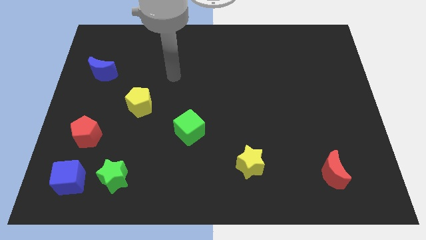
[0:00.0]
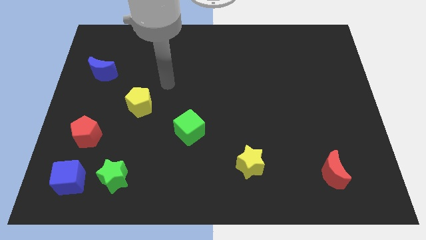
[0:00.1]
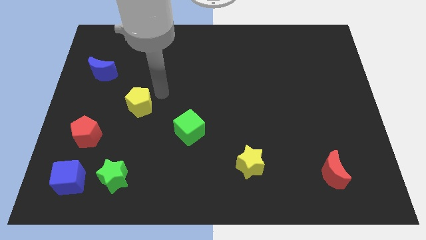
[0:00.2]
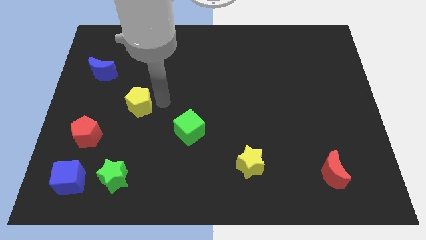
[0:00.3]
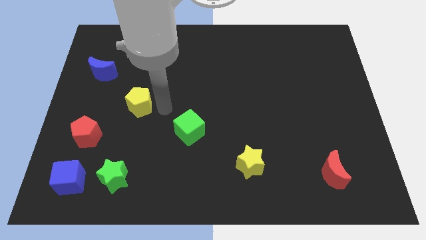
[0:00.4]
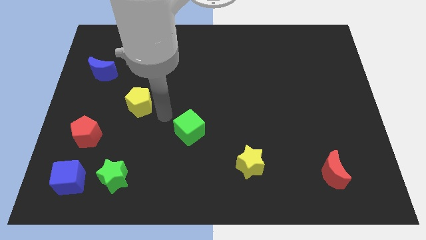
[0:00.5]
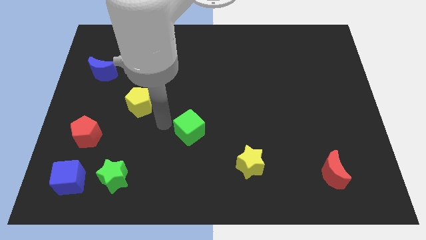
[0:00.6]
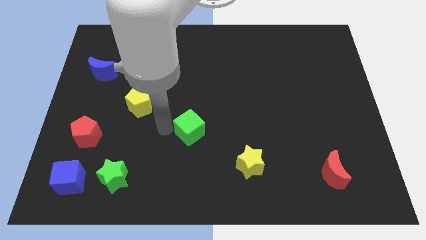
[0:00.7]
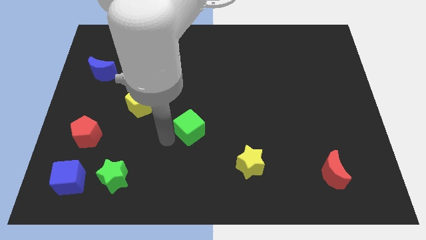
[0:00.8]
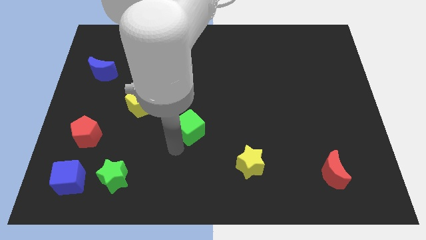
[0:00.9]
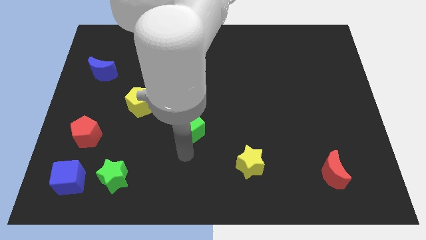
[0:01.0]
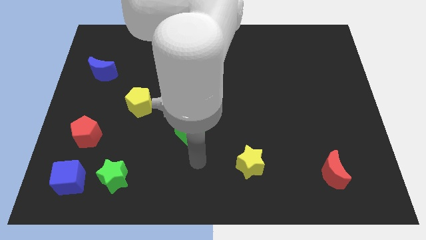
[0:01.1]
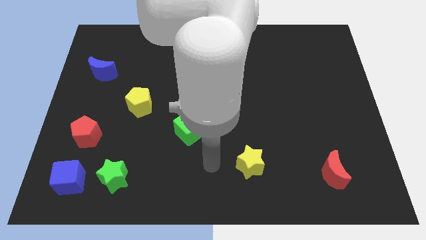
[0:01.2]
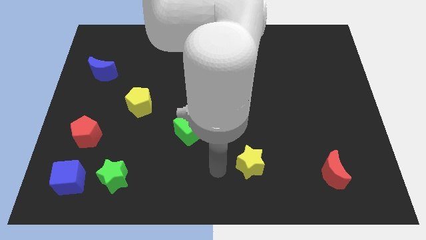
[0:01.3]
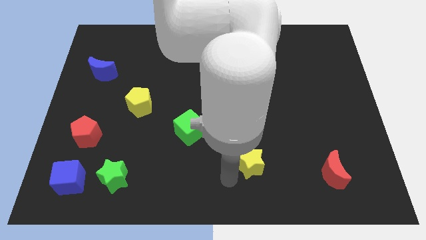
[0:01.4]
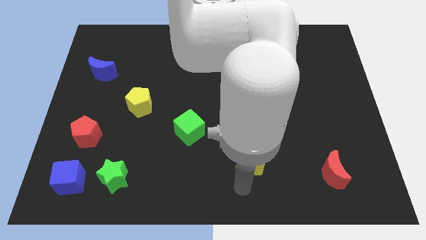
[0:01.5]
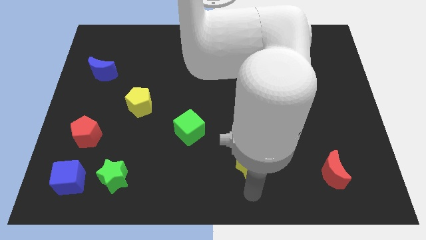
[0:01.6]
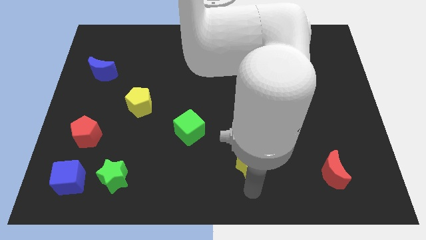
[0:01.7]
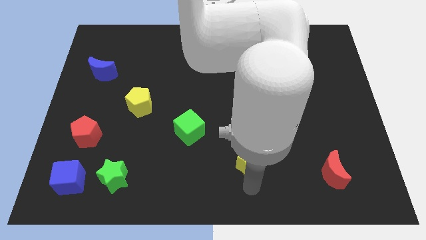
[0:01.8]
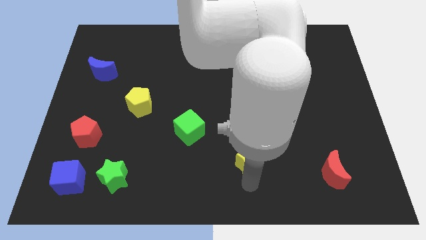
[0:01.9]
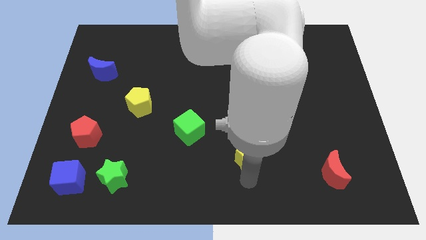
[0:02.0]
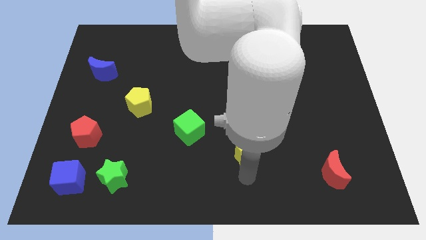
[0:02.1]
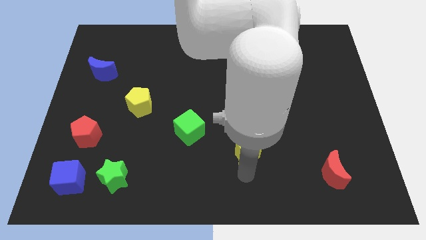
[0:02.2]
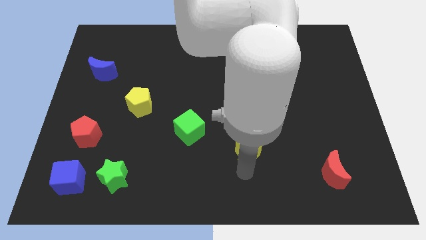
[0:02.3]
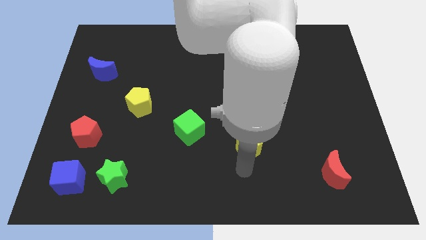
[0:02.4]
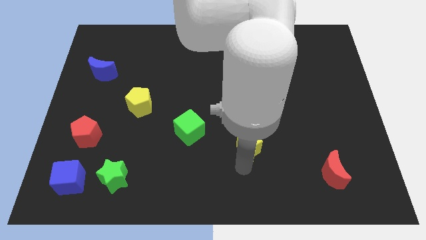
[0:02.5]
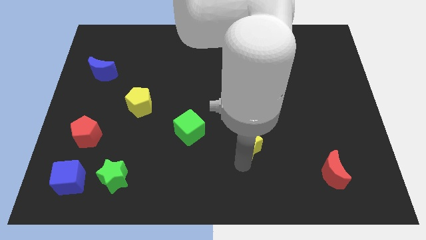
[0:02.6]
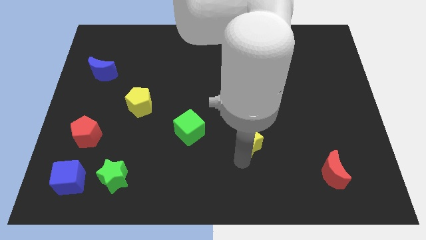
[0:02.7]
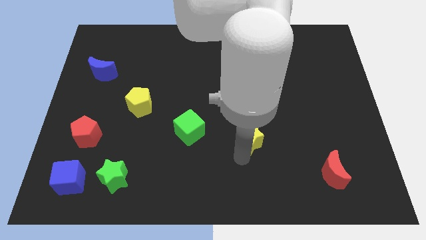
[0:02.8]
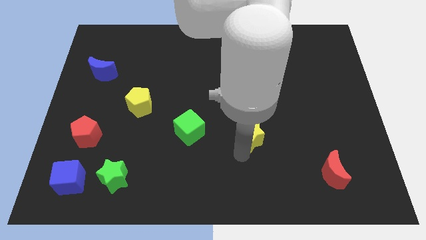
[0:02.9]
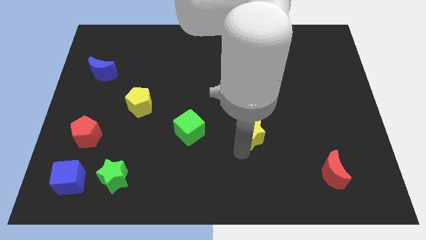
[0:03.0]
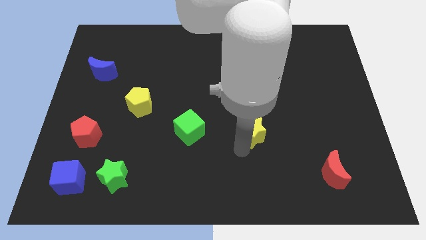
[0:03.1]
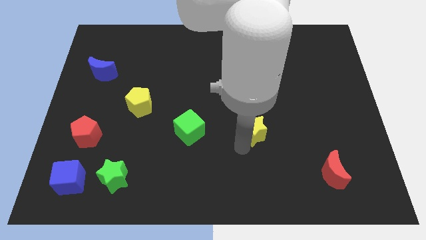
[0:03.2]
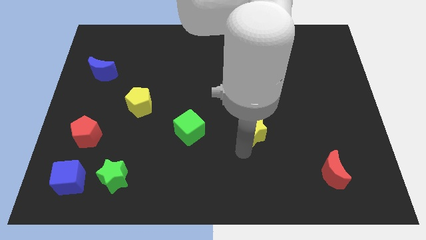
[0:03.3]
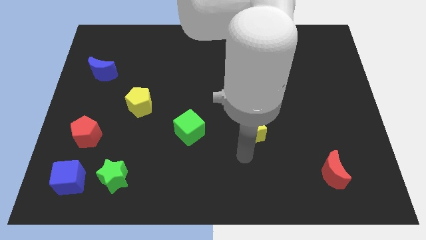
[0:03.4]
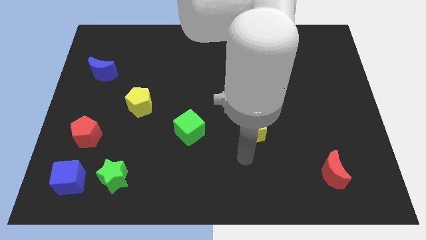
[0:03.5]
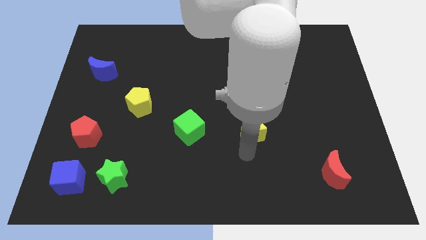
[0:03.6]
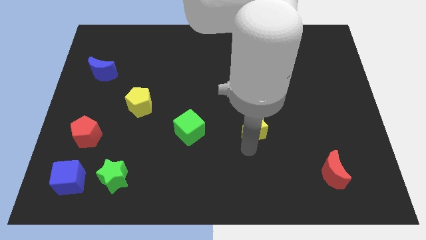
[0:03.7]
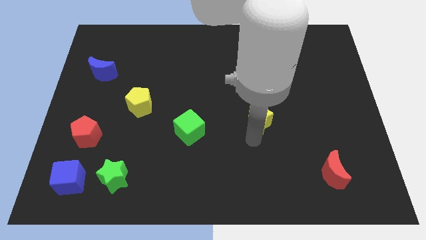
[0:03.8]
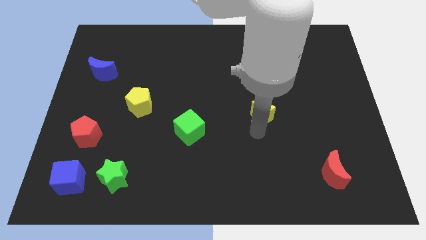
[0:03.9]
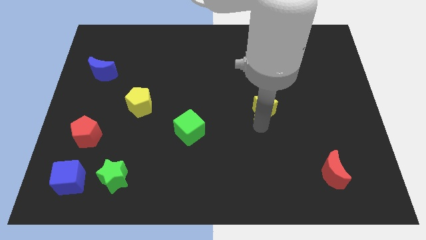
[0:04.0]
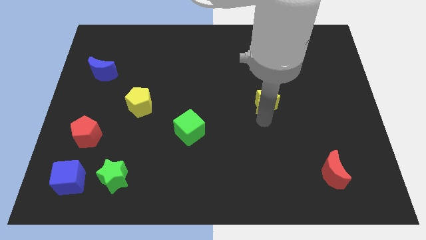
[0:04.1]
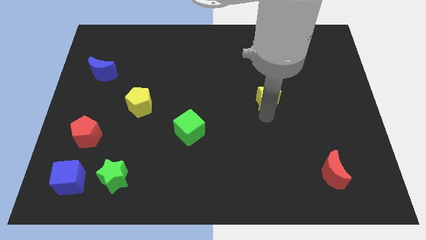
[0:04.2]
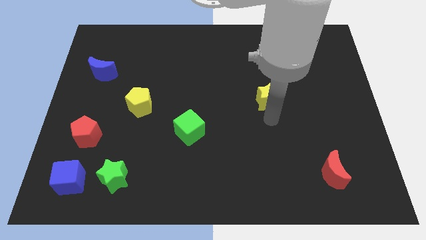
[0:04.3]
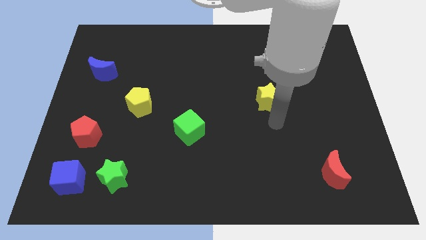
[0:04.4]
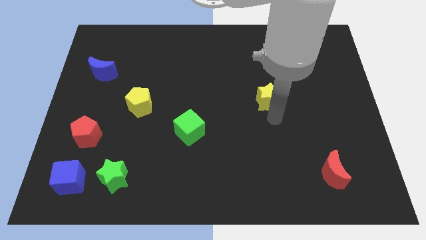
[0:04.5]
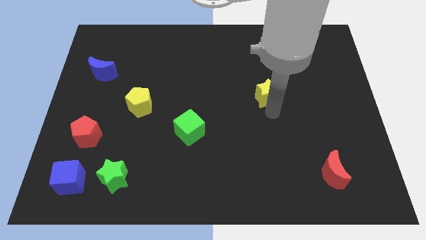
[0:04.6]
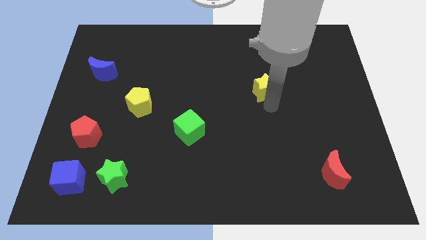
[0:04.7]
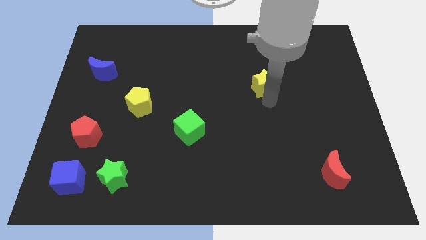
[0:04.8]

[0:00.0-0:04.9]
push the yellow star up

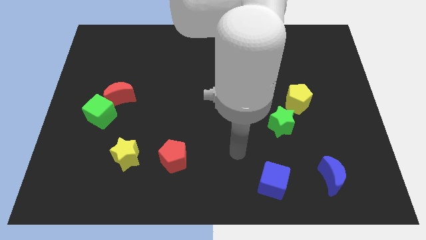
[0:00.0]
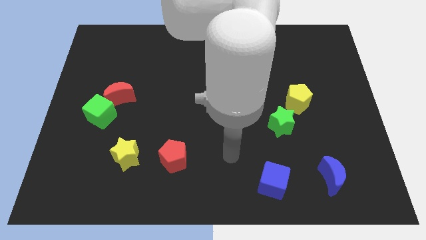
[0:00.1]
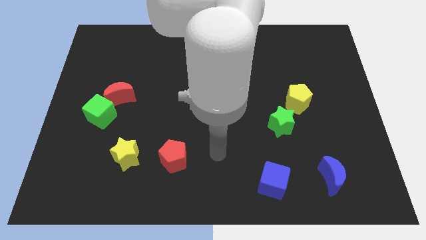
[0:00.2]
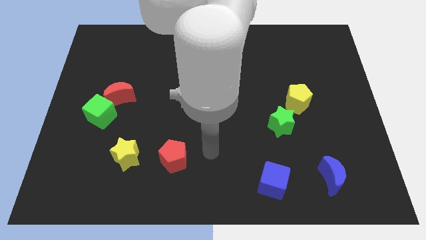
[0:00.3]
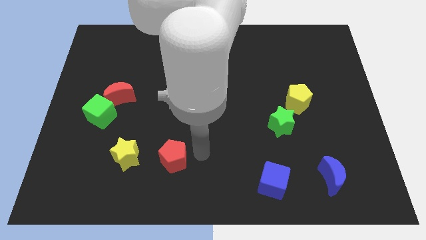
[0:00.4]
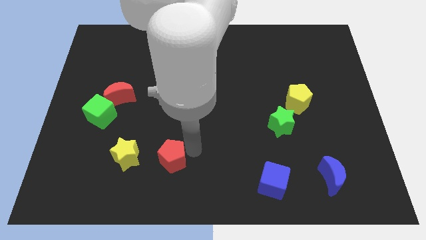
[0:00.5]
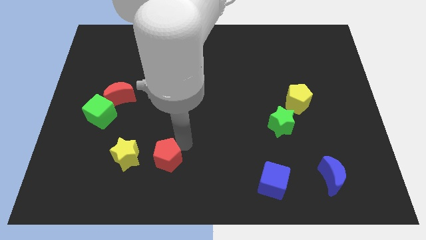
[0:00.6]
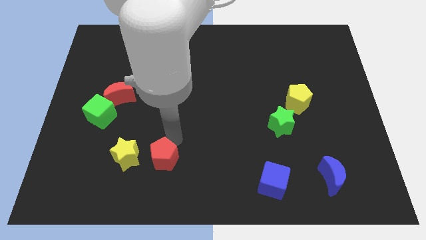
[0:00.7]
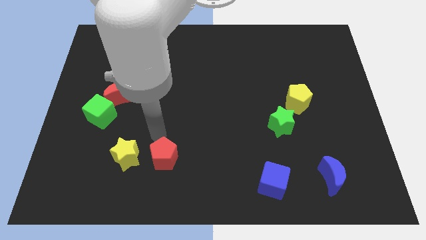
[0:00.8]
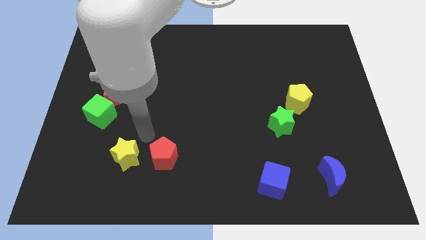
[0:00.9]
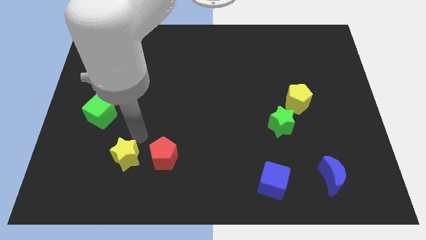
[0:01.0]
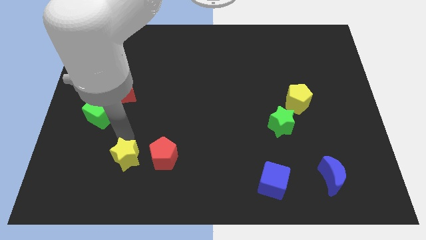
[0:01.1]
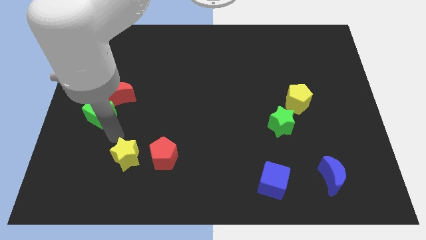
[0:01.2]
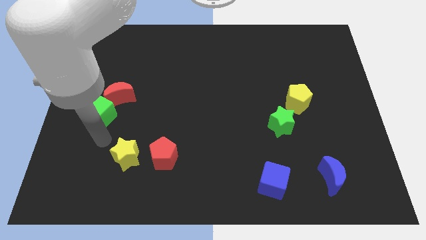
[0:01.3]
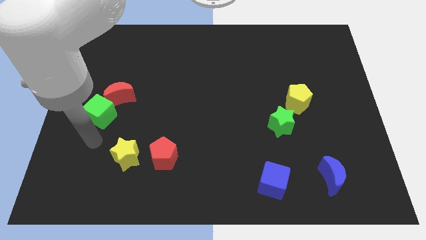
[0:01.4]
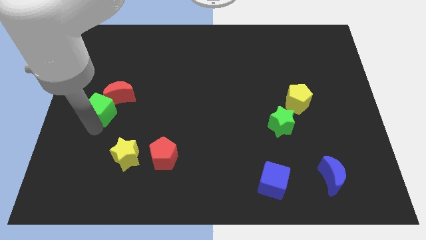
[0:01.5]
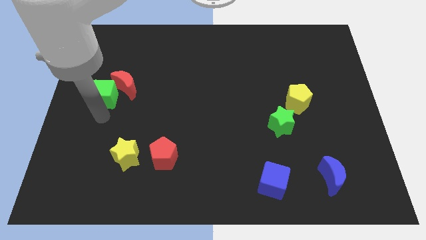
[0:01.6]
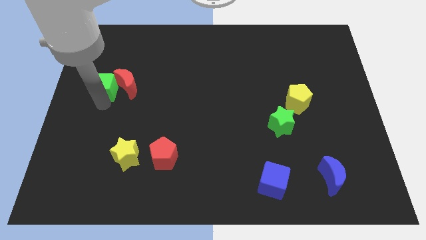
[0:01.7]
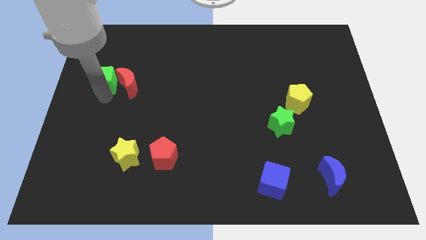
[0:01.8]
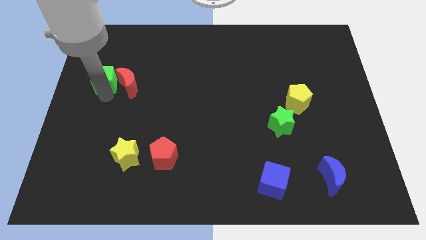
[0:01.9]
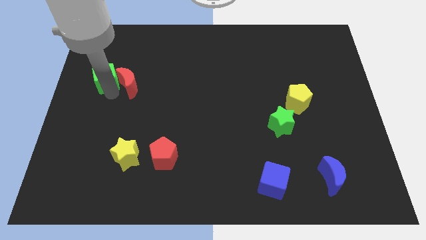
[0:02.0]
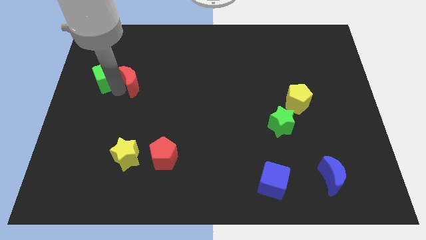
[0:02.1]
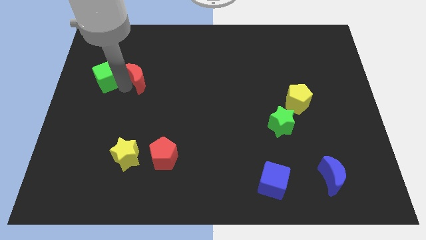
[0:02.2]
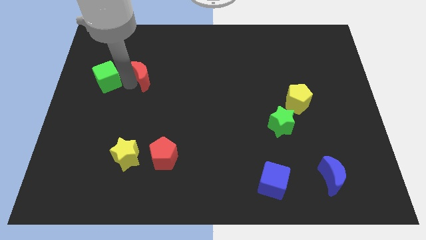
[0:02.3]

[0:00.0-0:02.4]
slightly slide the red moon up and to the right diagonally

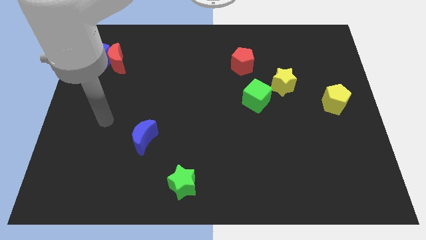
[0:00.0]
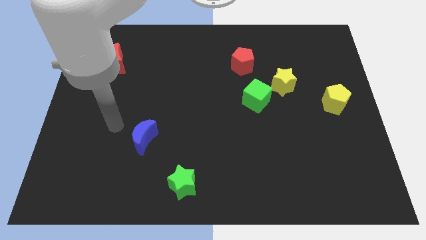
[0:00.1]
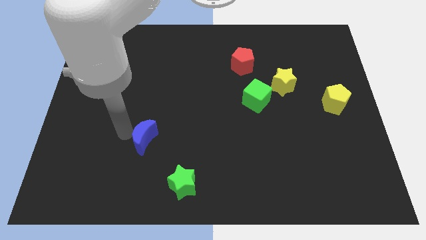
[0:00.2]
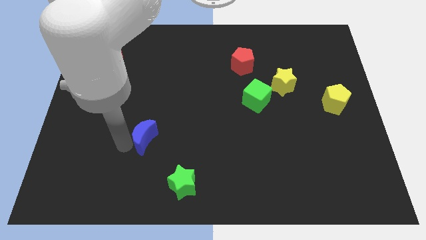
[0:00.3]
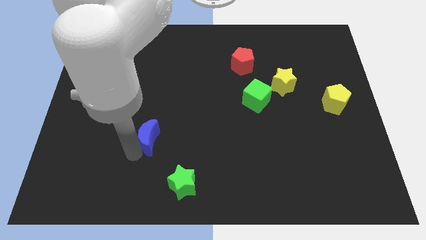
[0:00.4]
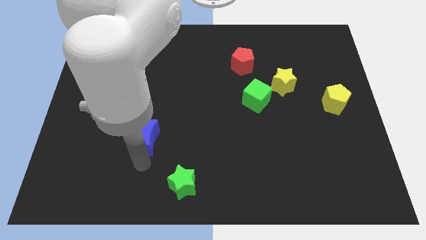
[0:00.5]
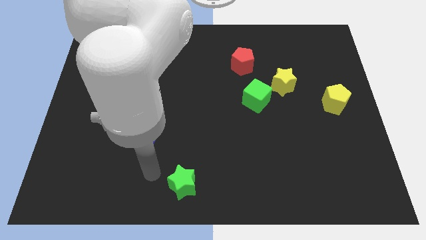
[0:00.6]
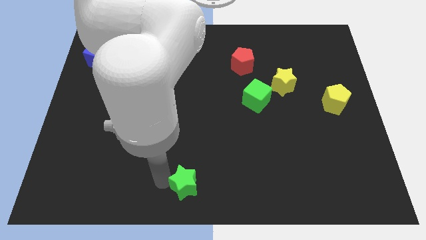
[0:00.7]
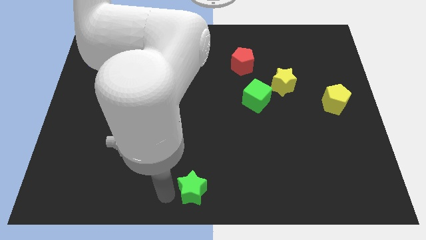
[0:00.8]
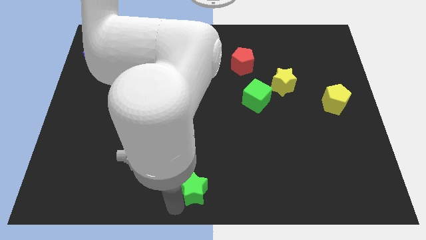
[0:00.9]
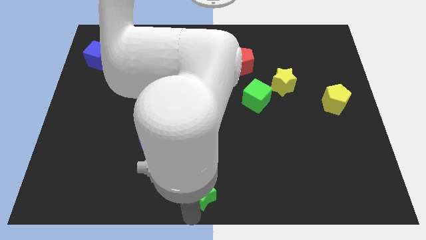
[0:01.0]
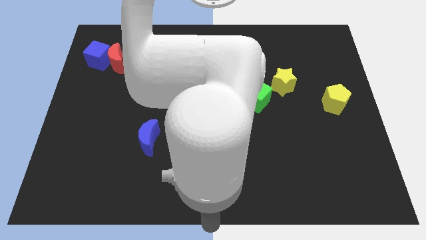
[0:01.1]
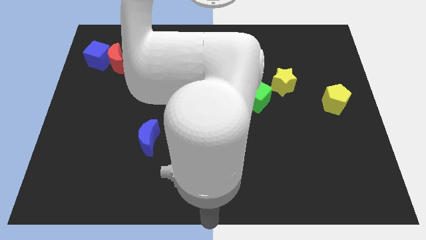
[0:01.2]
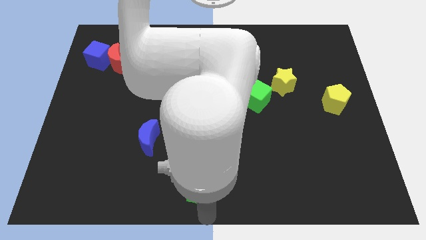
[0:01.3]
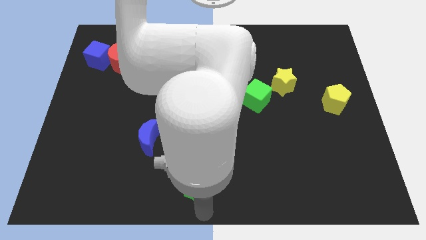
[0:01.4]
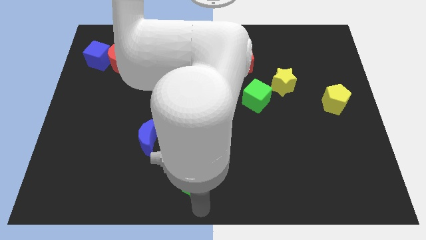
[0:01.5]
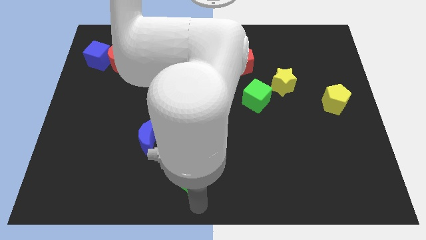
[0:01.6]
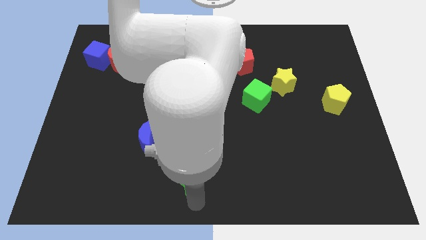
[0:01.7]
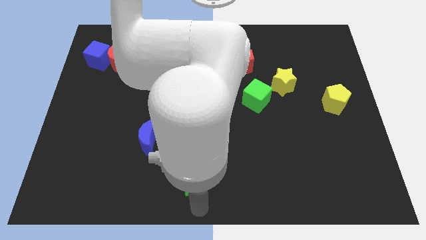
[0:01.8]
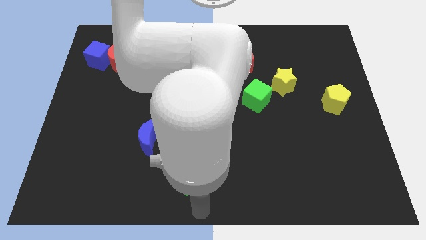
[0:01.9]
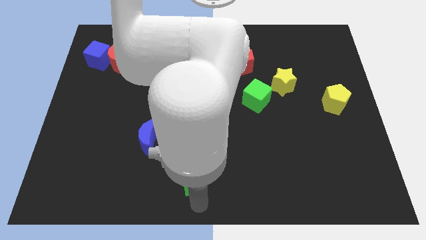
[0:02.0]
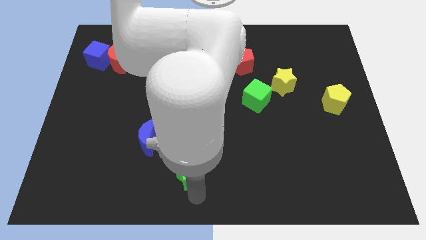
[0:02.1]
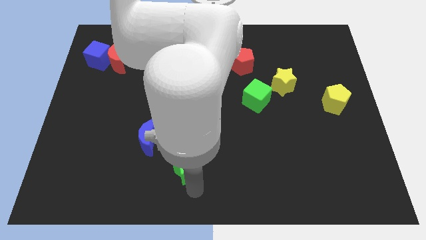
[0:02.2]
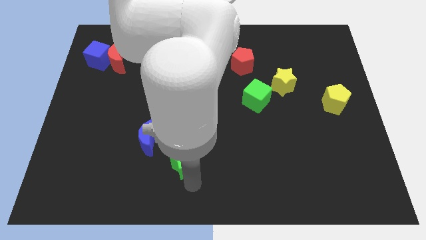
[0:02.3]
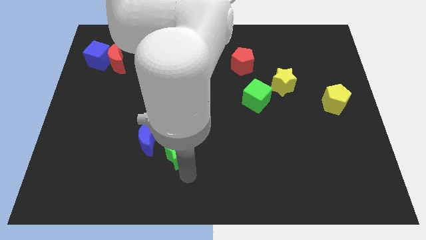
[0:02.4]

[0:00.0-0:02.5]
move the green star upwards a little
